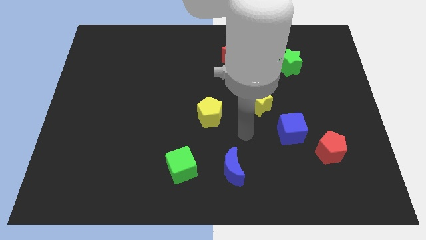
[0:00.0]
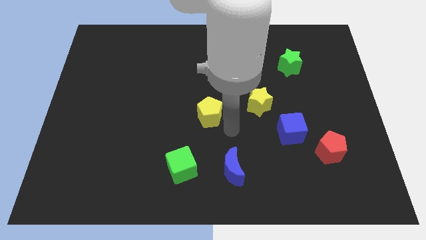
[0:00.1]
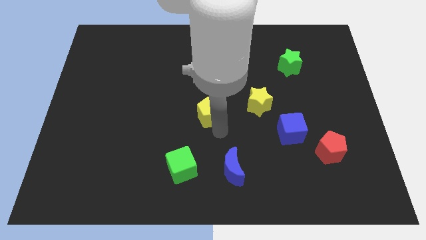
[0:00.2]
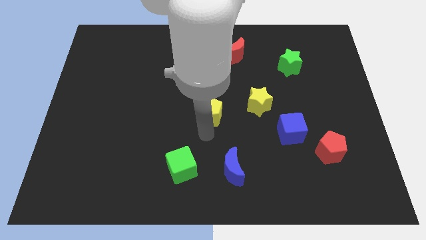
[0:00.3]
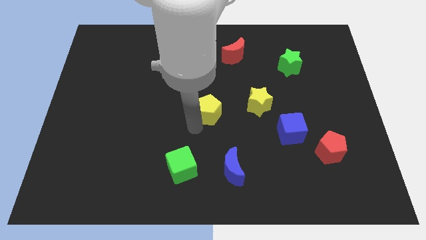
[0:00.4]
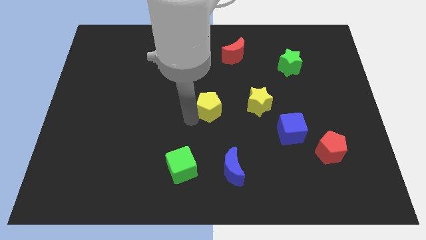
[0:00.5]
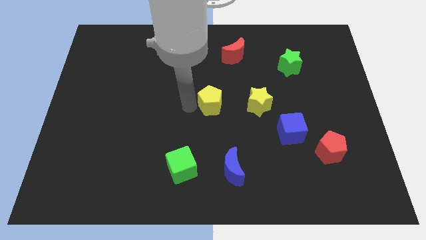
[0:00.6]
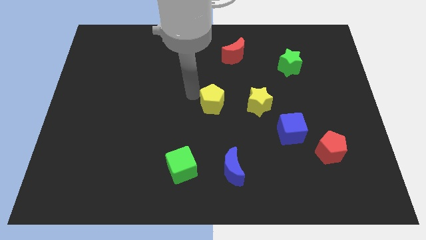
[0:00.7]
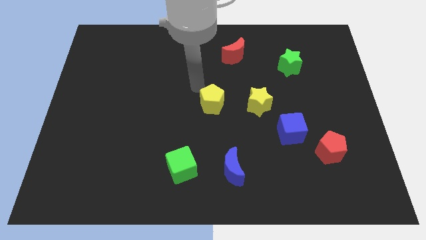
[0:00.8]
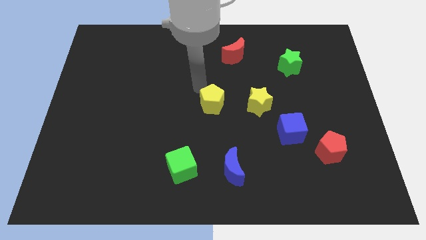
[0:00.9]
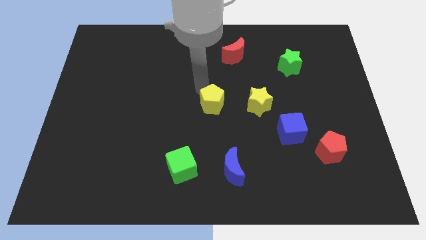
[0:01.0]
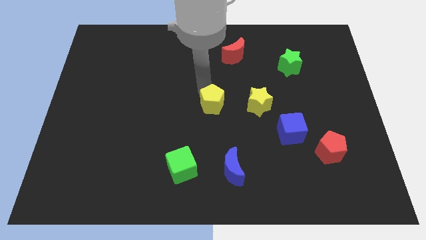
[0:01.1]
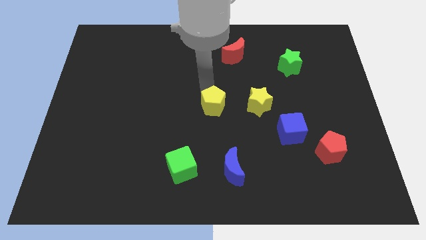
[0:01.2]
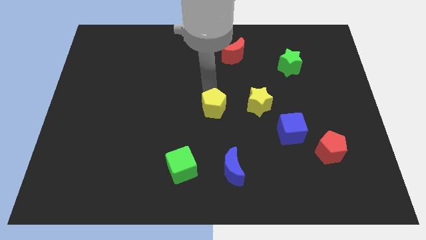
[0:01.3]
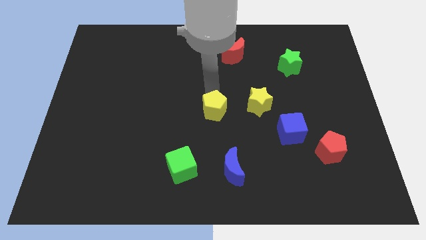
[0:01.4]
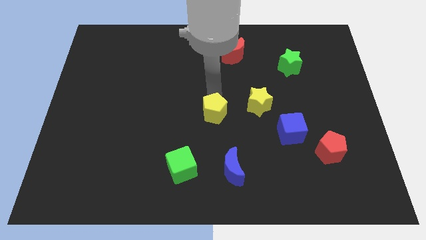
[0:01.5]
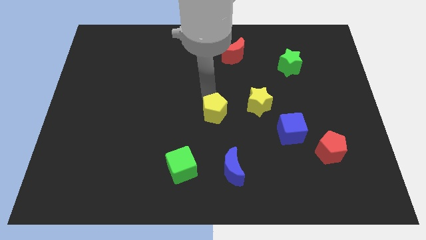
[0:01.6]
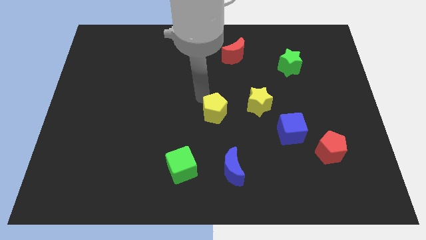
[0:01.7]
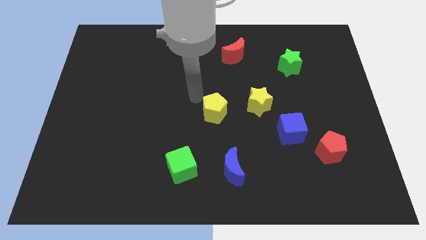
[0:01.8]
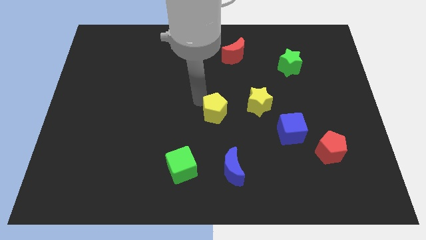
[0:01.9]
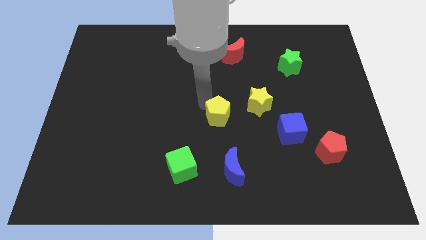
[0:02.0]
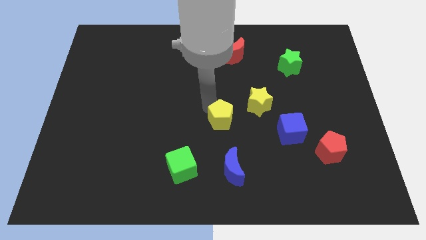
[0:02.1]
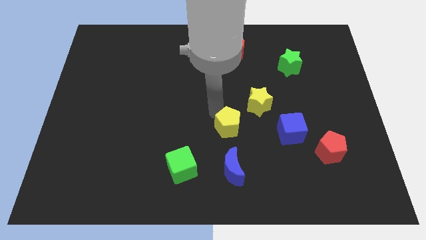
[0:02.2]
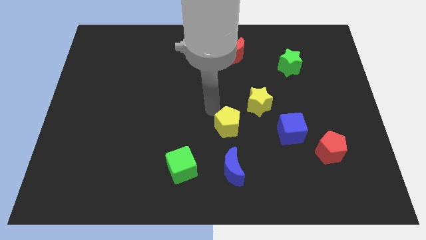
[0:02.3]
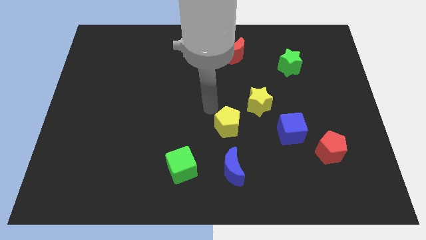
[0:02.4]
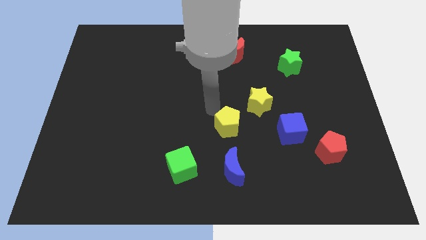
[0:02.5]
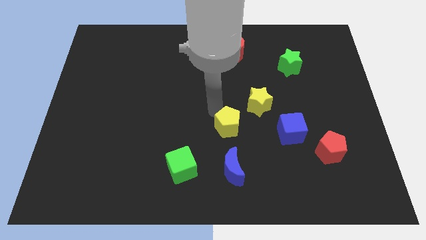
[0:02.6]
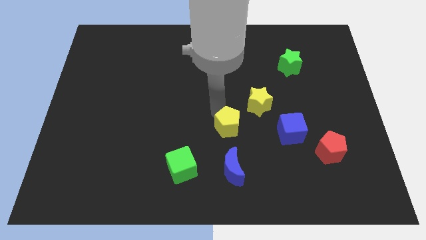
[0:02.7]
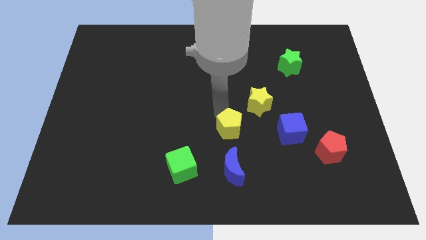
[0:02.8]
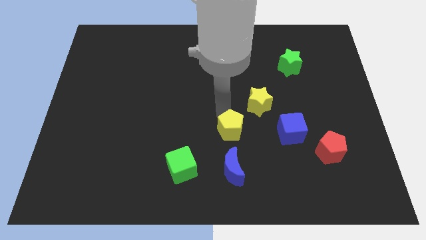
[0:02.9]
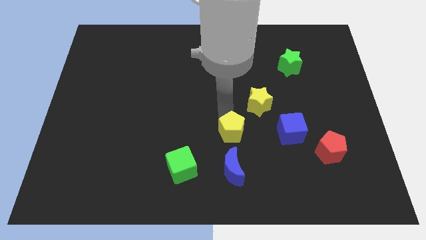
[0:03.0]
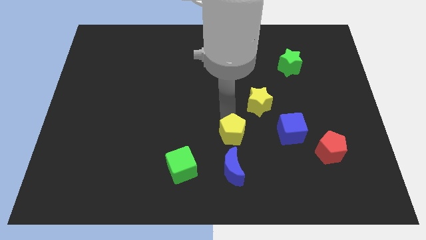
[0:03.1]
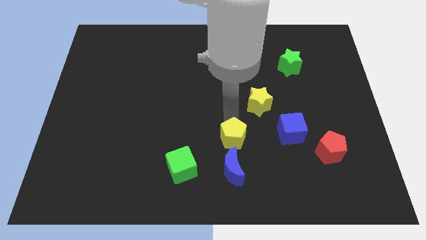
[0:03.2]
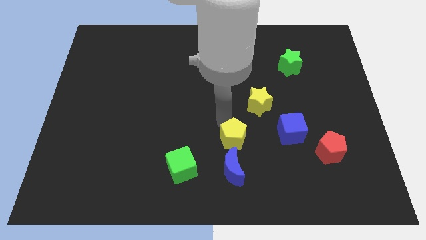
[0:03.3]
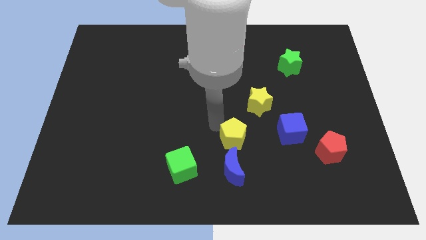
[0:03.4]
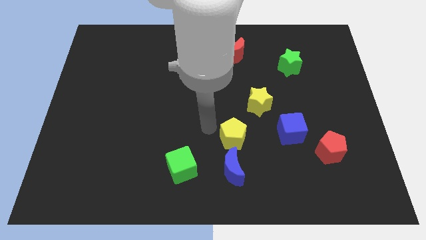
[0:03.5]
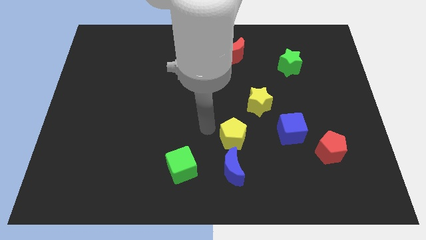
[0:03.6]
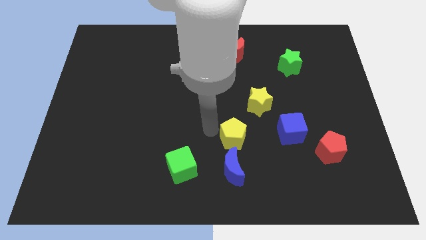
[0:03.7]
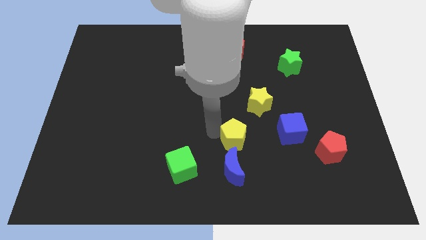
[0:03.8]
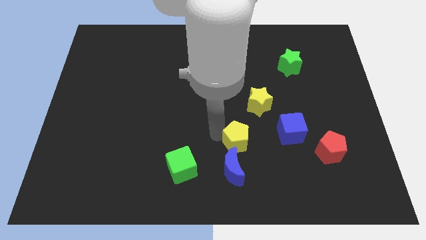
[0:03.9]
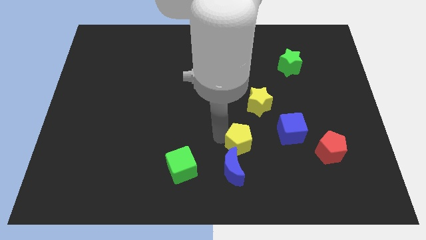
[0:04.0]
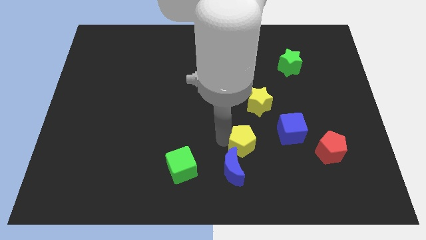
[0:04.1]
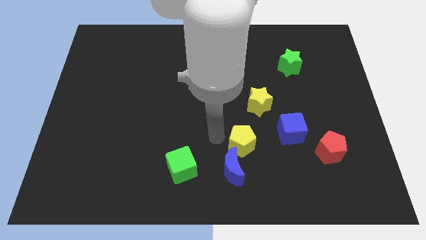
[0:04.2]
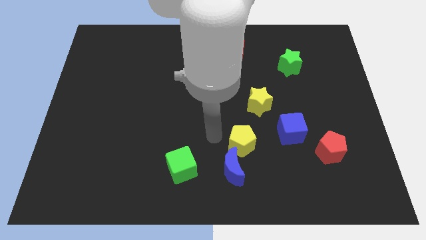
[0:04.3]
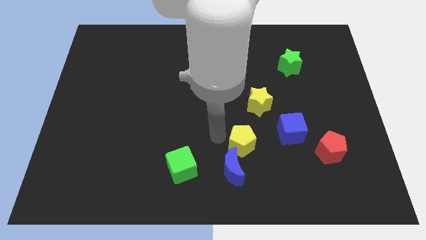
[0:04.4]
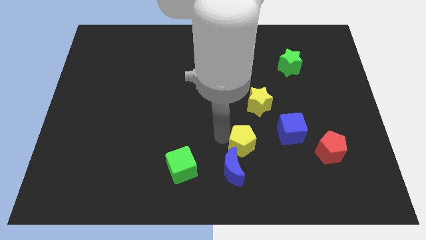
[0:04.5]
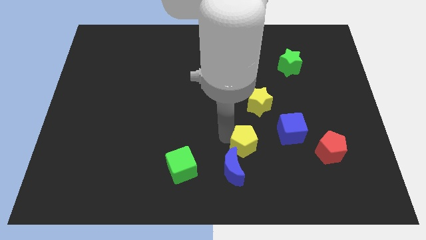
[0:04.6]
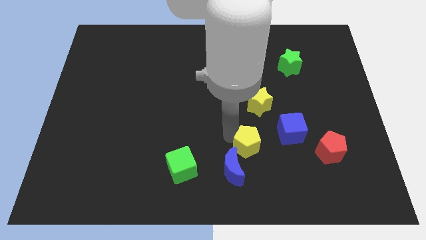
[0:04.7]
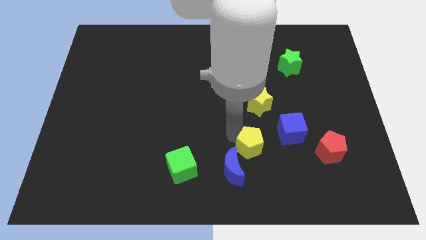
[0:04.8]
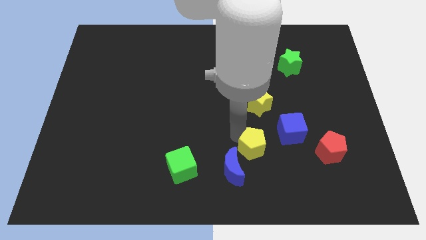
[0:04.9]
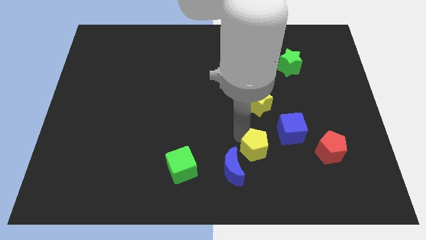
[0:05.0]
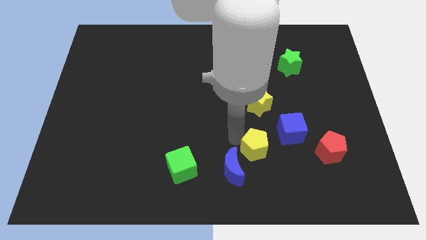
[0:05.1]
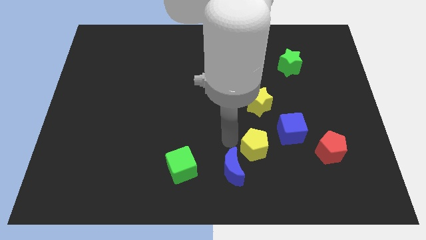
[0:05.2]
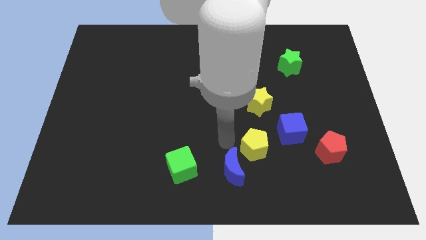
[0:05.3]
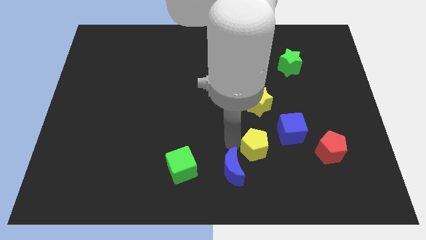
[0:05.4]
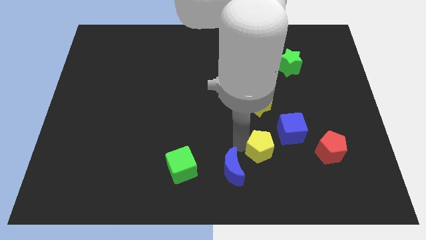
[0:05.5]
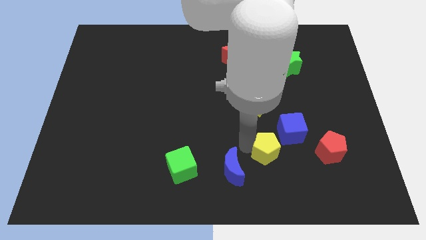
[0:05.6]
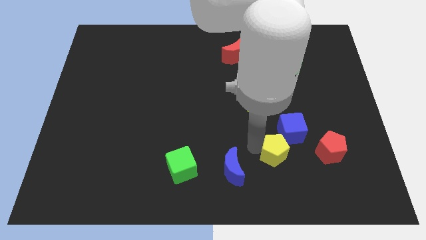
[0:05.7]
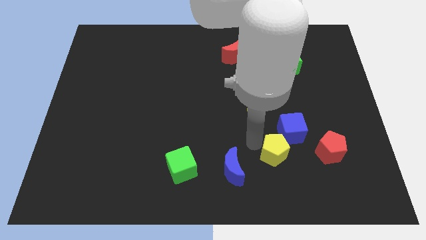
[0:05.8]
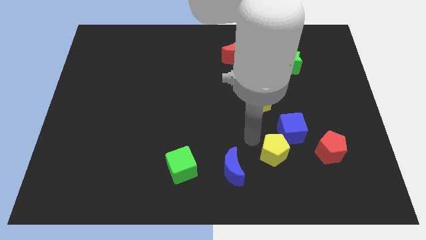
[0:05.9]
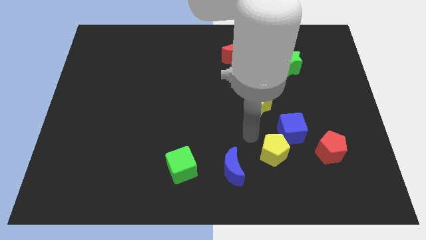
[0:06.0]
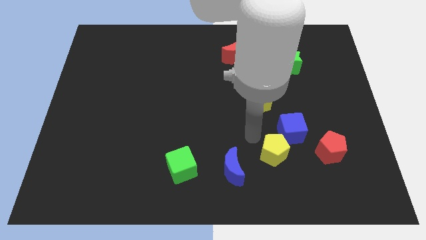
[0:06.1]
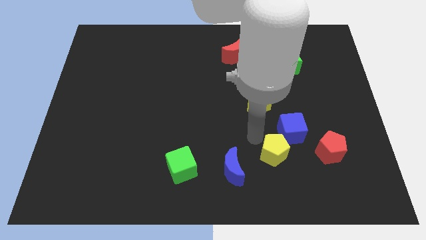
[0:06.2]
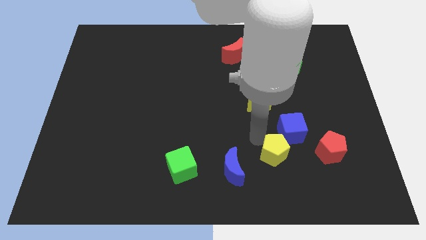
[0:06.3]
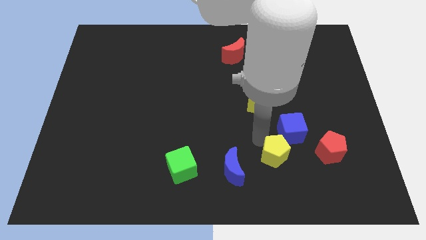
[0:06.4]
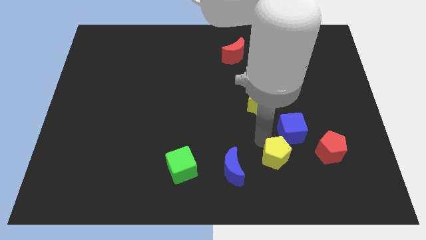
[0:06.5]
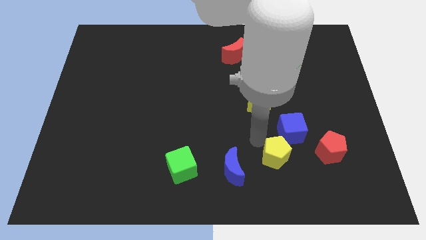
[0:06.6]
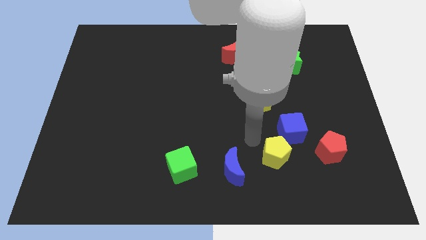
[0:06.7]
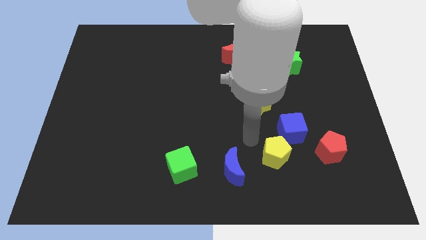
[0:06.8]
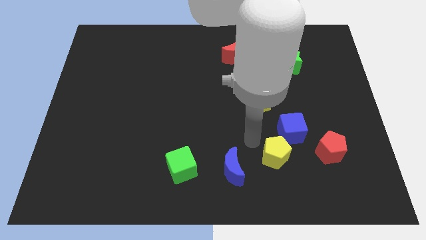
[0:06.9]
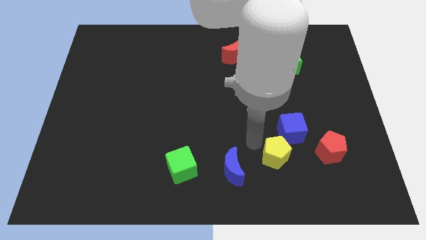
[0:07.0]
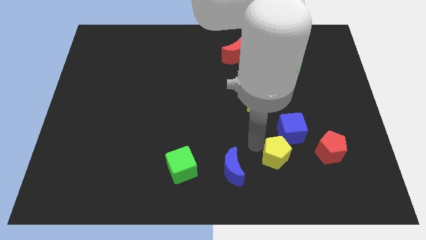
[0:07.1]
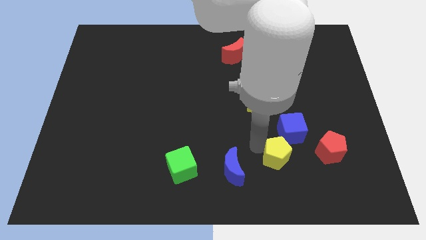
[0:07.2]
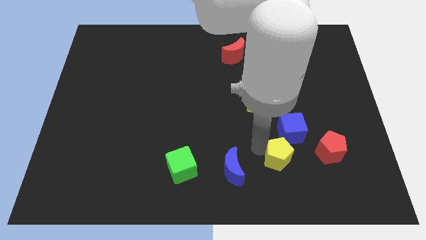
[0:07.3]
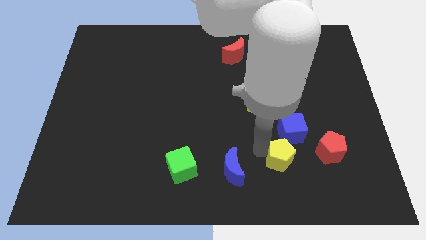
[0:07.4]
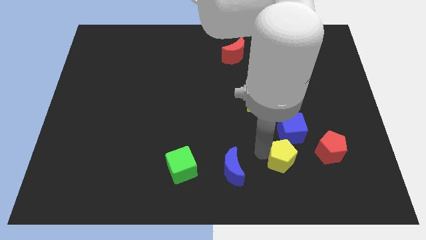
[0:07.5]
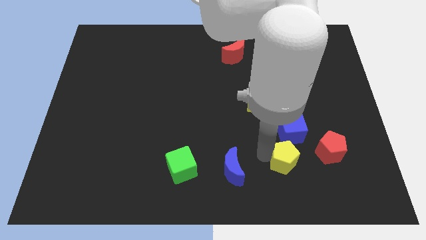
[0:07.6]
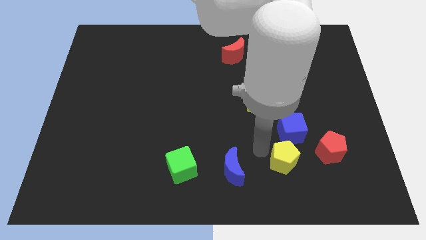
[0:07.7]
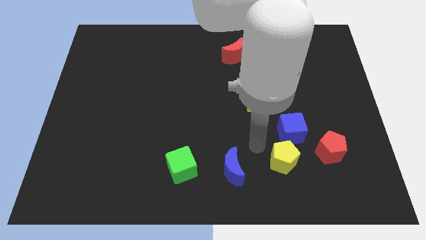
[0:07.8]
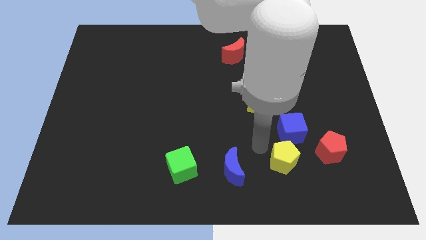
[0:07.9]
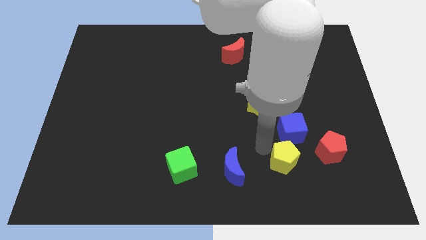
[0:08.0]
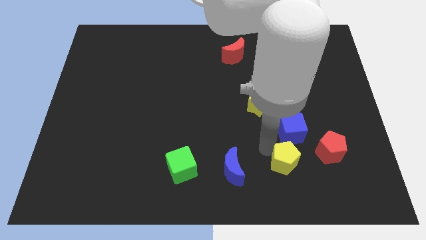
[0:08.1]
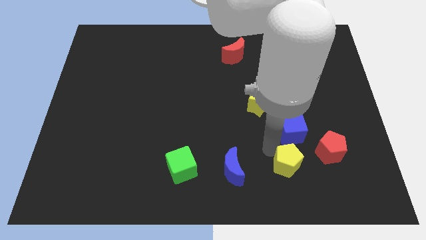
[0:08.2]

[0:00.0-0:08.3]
move the yellow pentagon to the bottom left of the red pentagon
